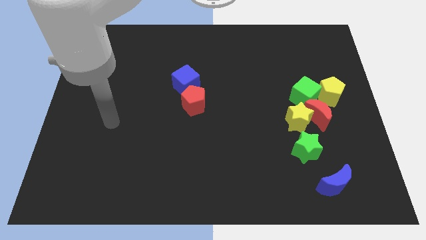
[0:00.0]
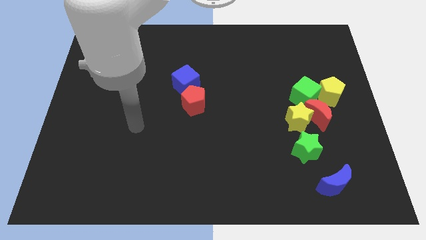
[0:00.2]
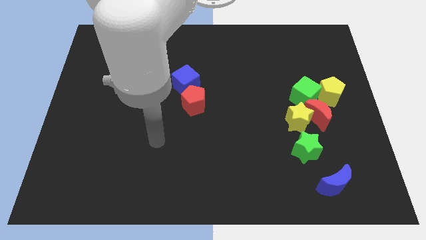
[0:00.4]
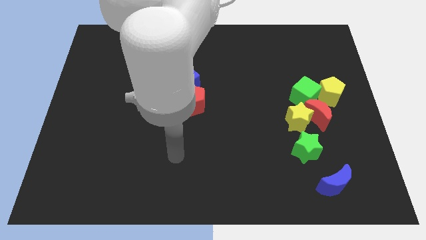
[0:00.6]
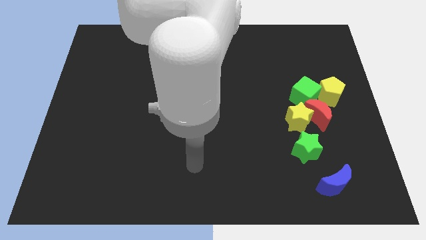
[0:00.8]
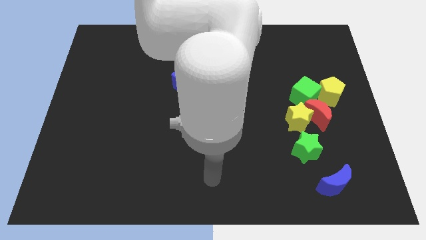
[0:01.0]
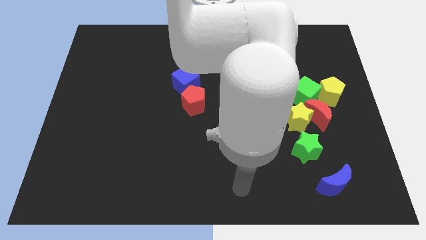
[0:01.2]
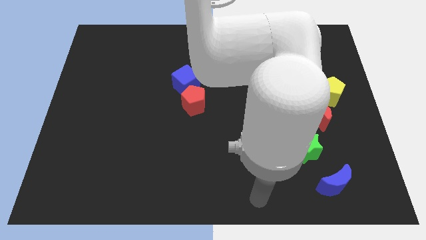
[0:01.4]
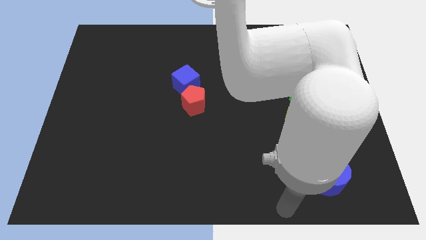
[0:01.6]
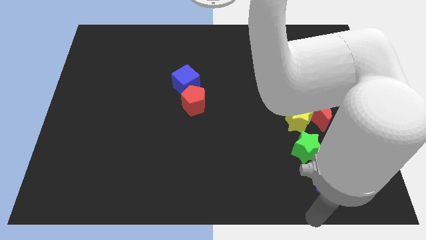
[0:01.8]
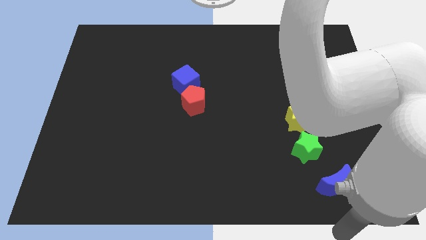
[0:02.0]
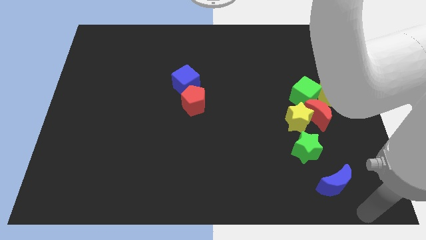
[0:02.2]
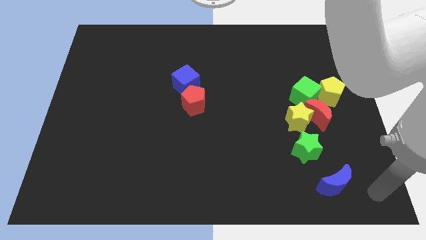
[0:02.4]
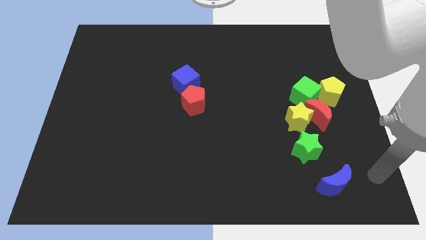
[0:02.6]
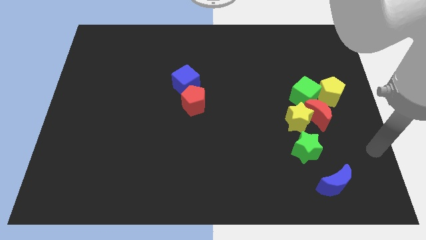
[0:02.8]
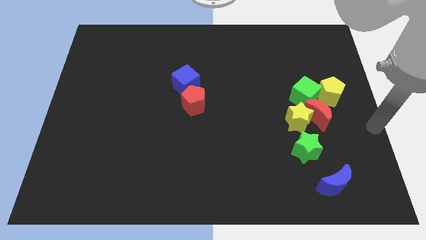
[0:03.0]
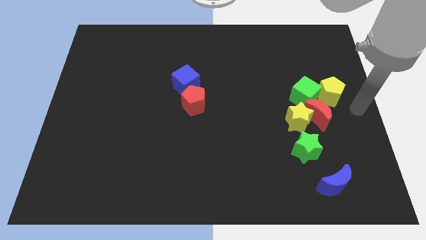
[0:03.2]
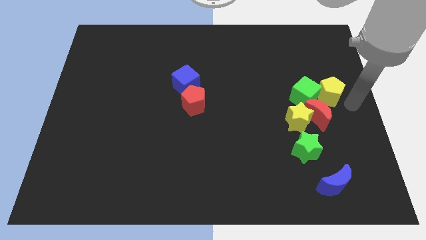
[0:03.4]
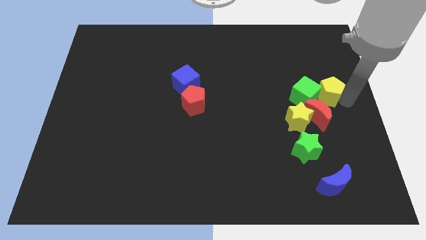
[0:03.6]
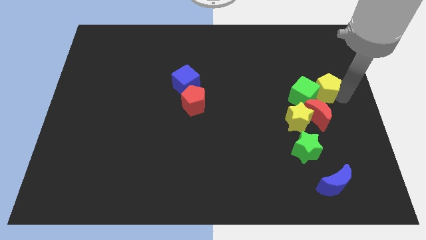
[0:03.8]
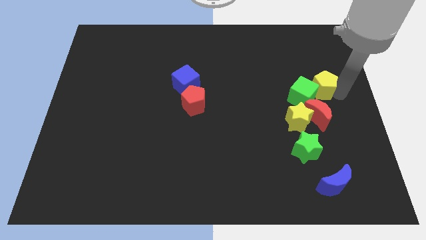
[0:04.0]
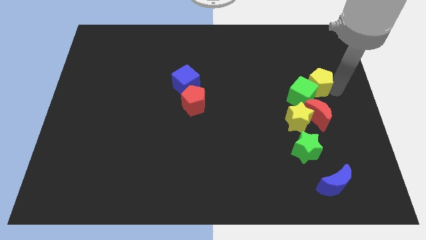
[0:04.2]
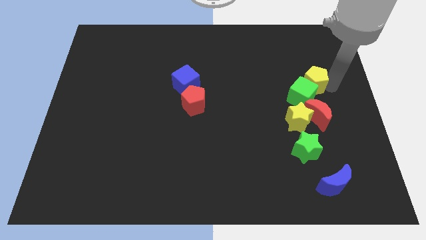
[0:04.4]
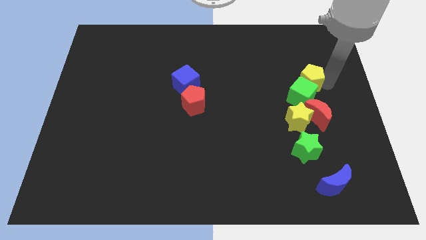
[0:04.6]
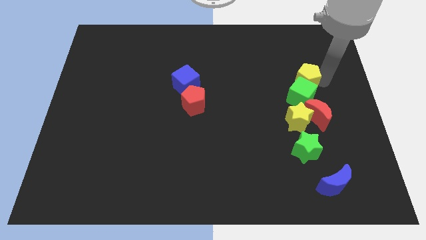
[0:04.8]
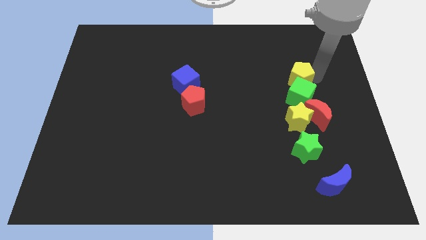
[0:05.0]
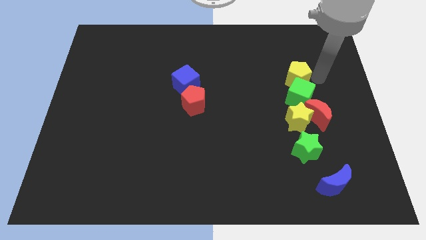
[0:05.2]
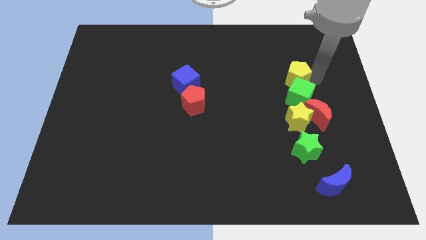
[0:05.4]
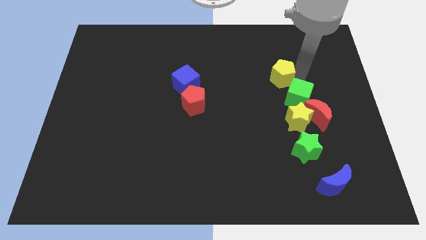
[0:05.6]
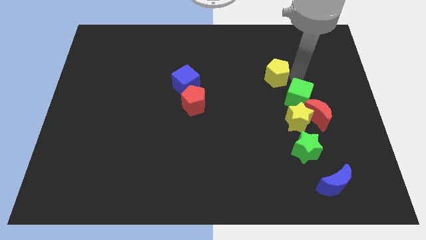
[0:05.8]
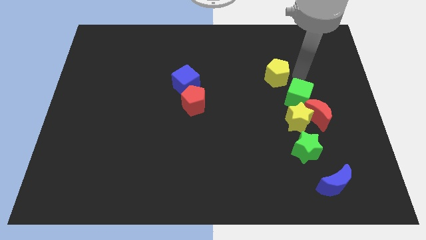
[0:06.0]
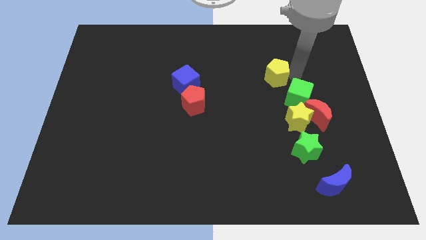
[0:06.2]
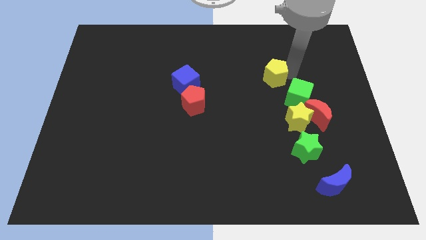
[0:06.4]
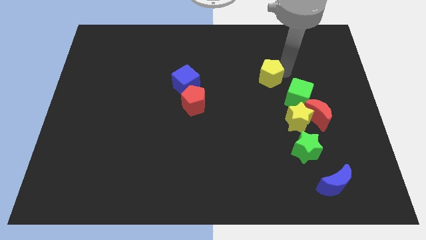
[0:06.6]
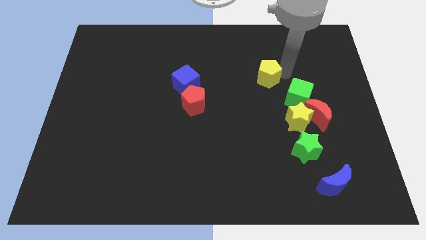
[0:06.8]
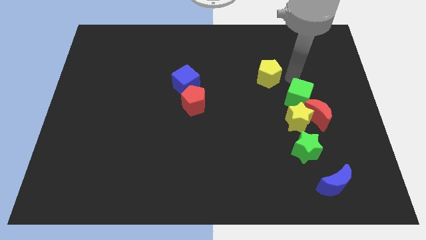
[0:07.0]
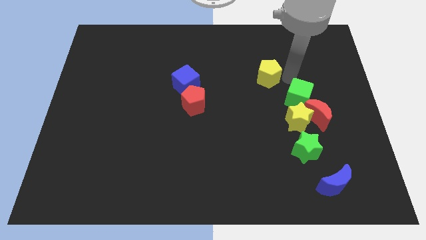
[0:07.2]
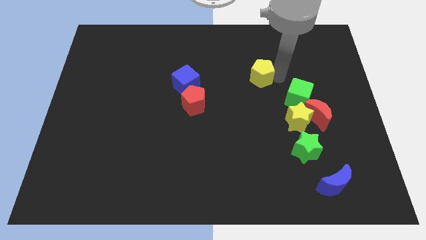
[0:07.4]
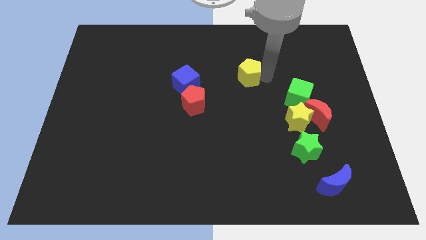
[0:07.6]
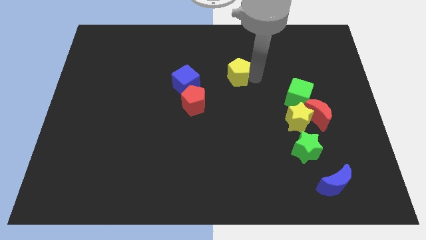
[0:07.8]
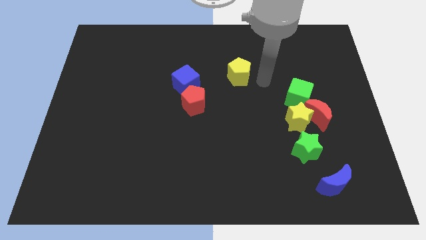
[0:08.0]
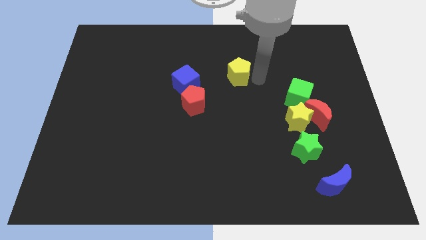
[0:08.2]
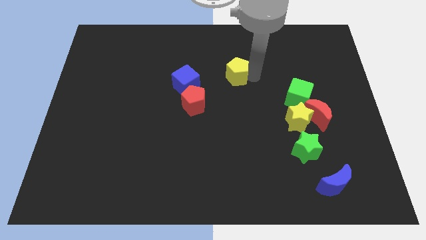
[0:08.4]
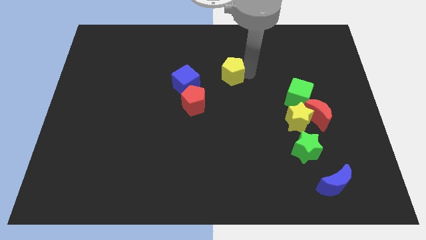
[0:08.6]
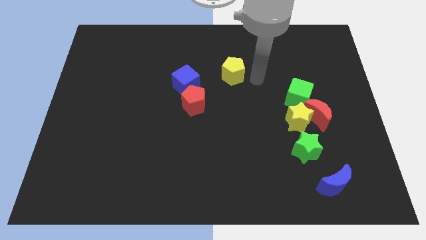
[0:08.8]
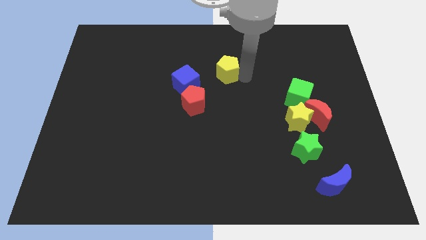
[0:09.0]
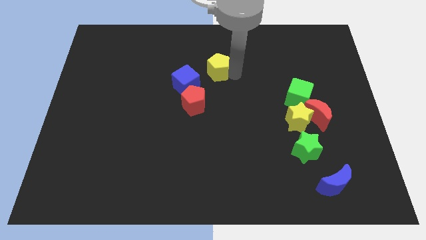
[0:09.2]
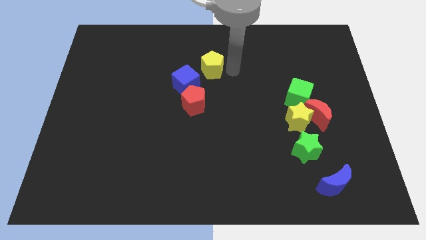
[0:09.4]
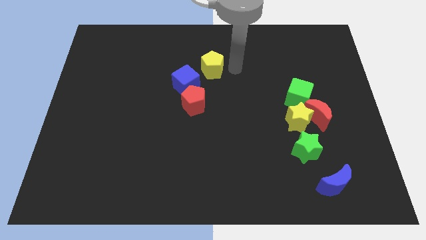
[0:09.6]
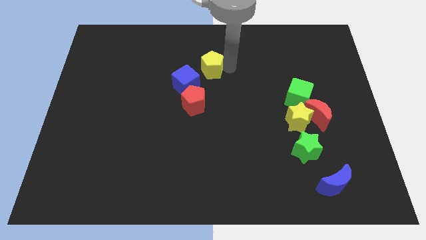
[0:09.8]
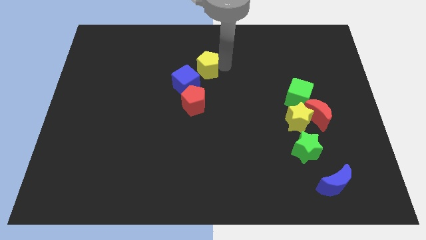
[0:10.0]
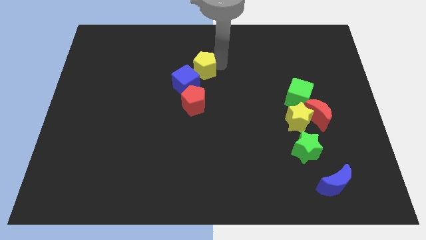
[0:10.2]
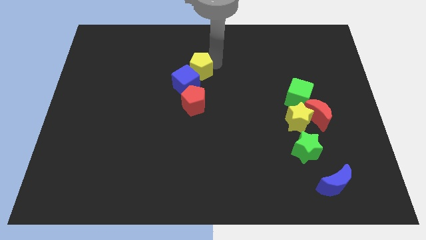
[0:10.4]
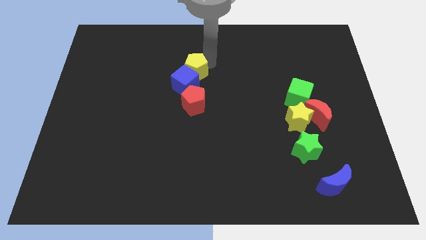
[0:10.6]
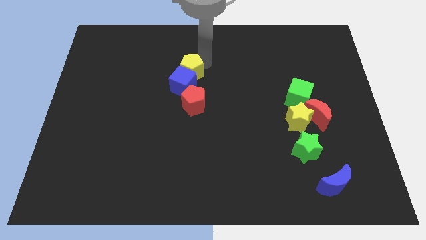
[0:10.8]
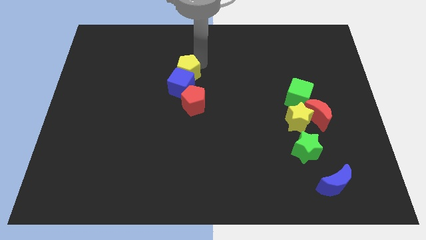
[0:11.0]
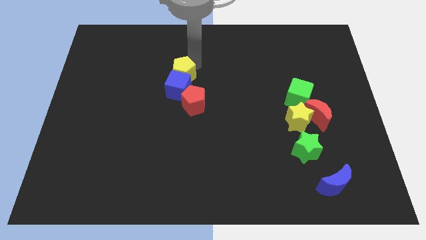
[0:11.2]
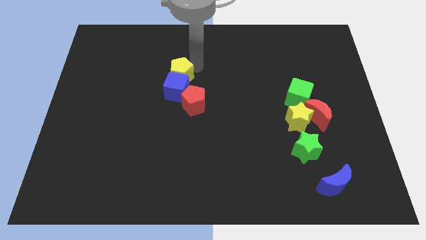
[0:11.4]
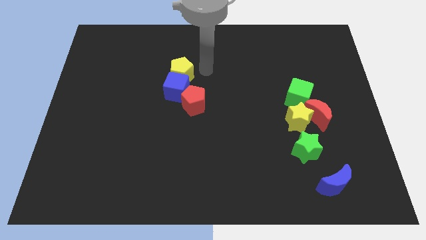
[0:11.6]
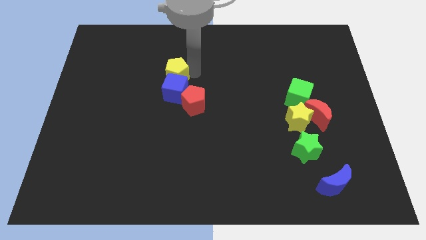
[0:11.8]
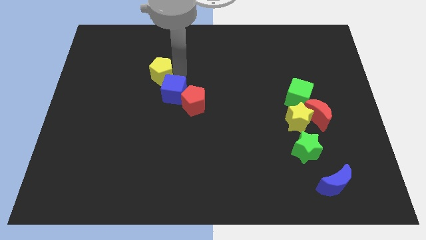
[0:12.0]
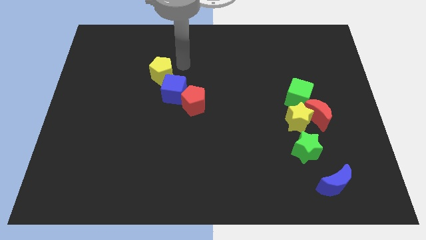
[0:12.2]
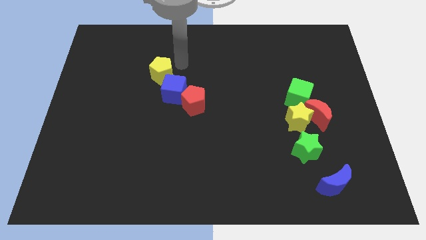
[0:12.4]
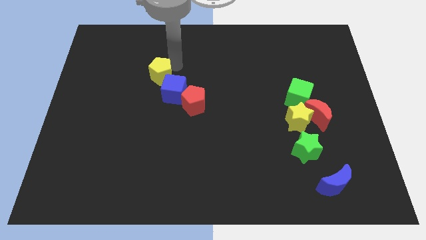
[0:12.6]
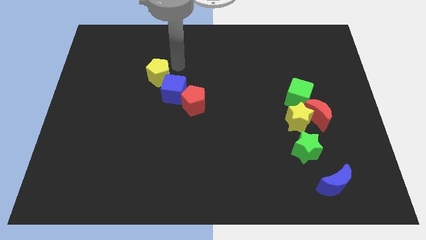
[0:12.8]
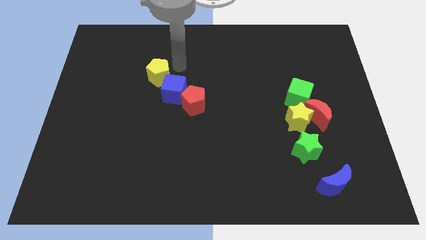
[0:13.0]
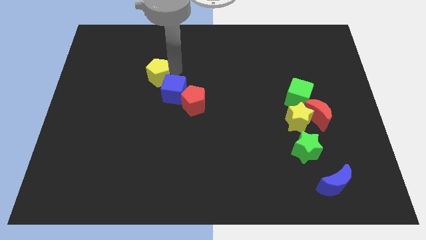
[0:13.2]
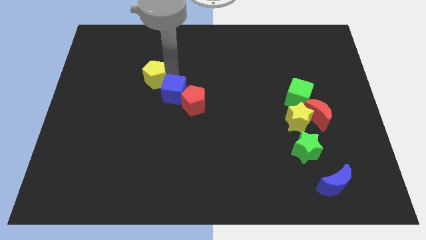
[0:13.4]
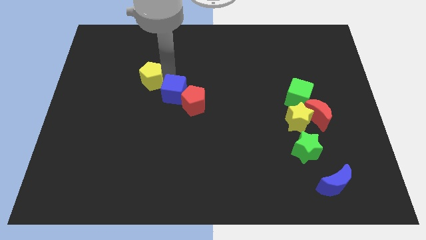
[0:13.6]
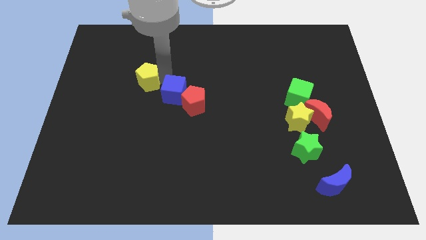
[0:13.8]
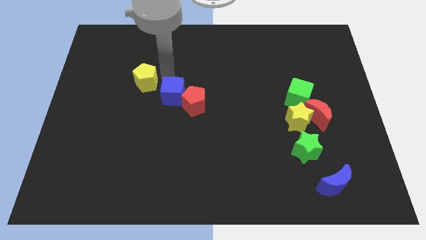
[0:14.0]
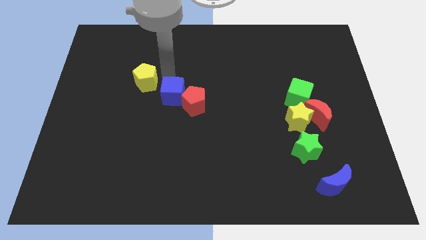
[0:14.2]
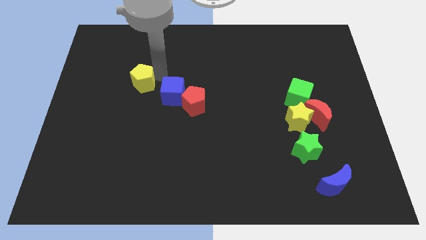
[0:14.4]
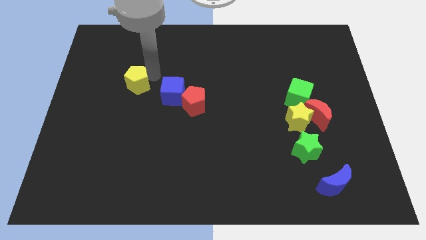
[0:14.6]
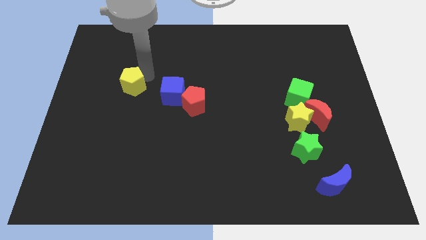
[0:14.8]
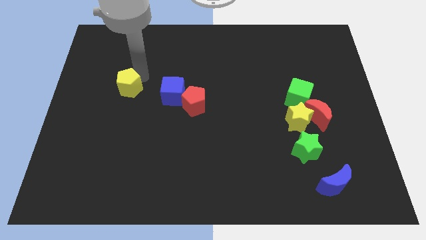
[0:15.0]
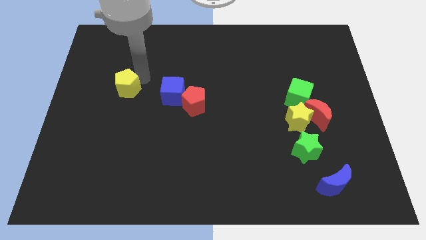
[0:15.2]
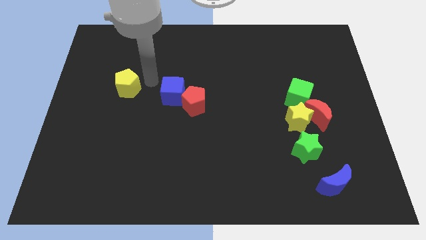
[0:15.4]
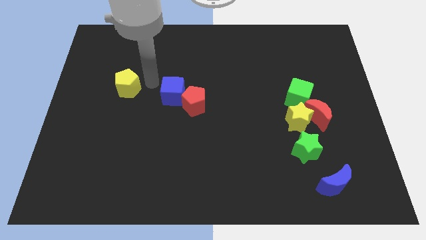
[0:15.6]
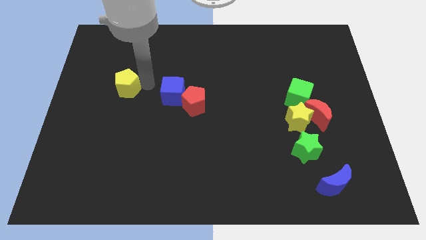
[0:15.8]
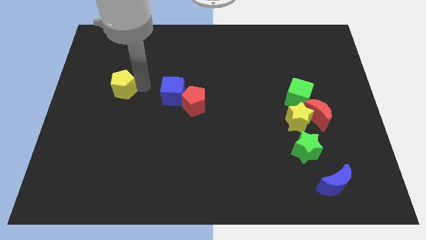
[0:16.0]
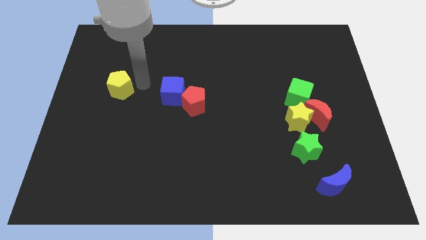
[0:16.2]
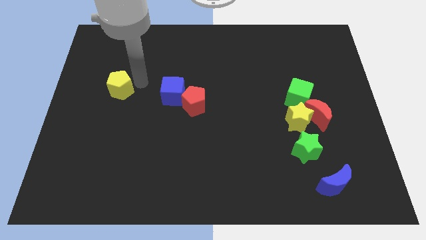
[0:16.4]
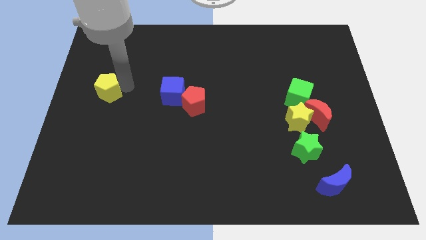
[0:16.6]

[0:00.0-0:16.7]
push the yellow pentagon to the left side of the board
